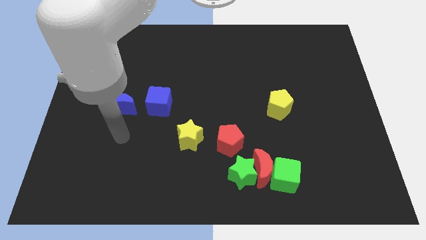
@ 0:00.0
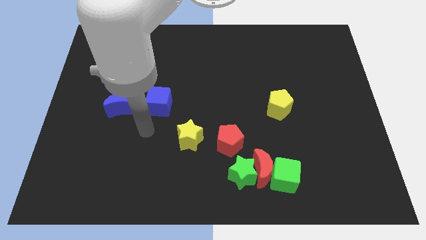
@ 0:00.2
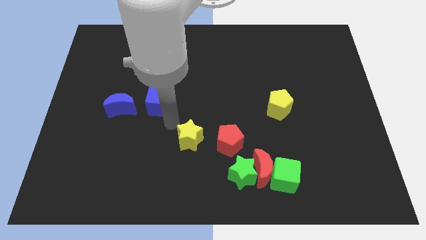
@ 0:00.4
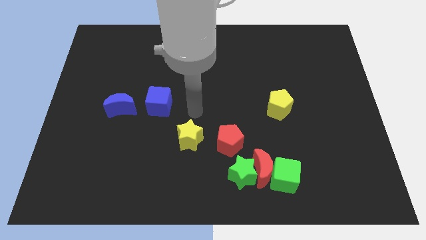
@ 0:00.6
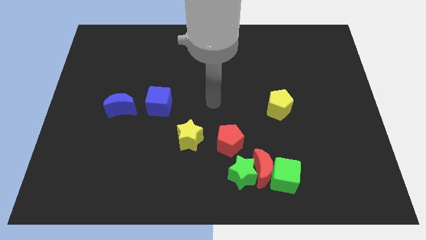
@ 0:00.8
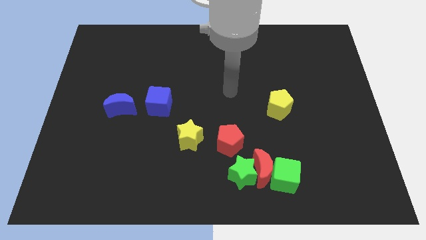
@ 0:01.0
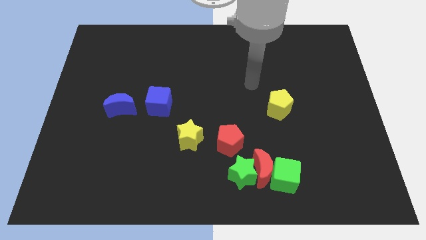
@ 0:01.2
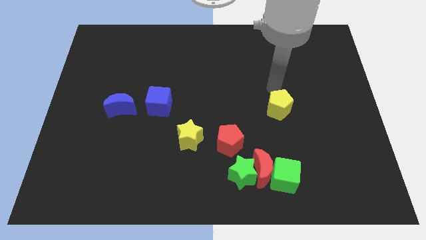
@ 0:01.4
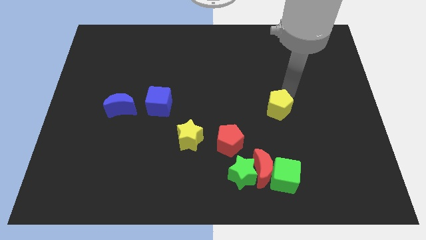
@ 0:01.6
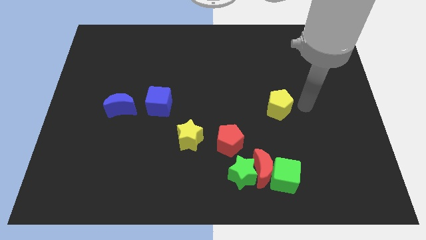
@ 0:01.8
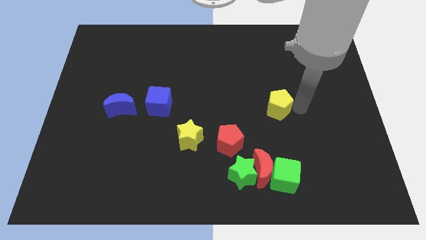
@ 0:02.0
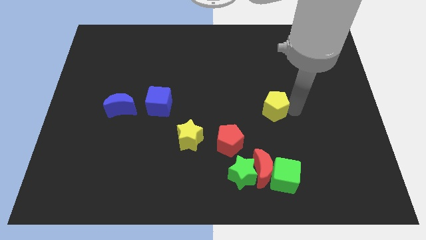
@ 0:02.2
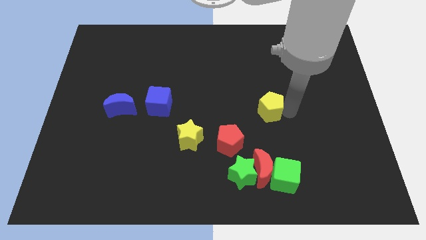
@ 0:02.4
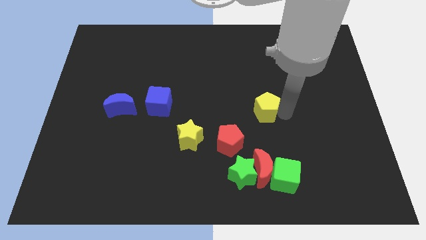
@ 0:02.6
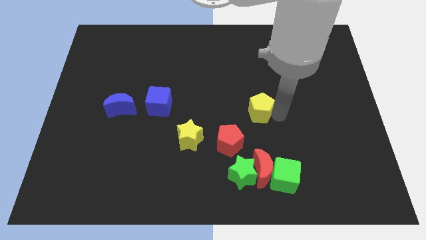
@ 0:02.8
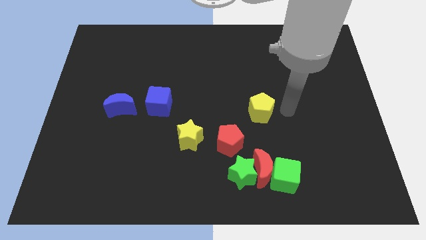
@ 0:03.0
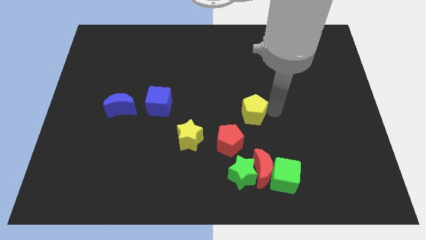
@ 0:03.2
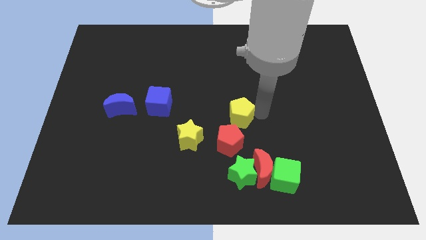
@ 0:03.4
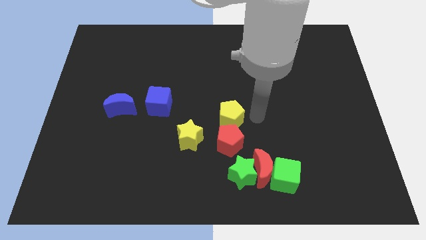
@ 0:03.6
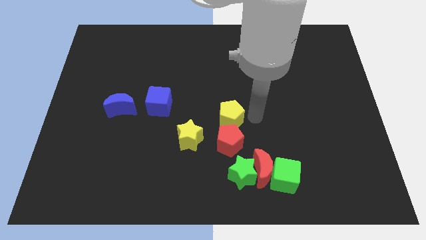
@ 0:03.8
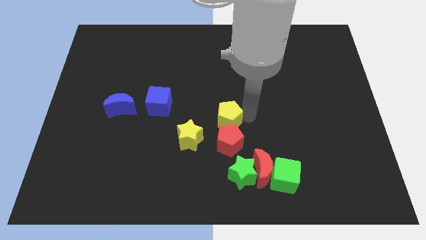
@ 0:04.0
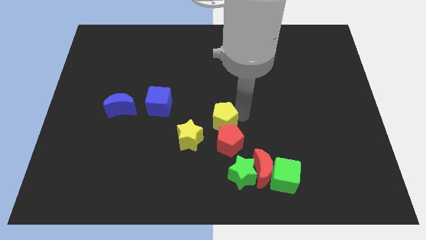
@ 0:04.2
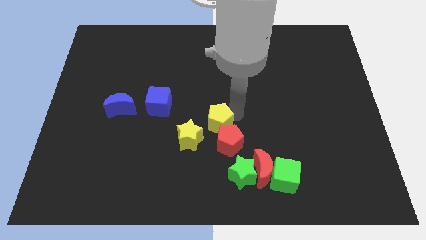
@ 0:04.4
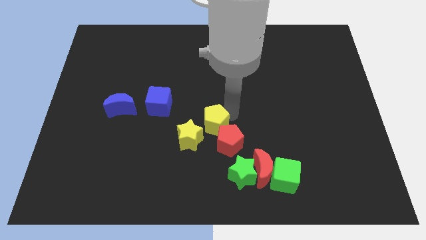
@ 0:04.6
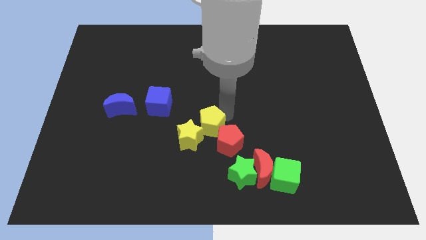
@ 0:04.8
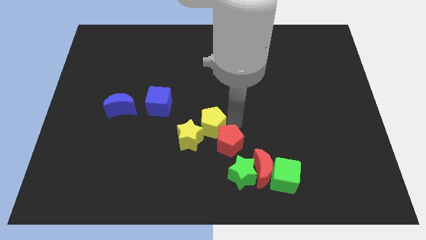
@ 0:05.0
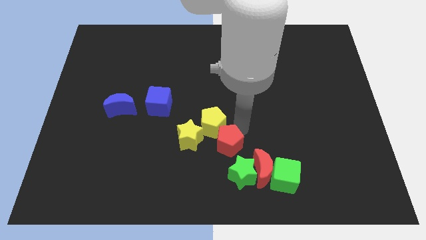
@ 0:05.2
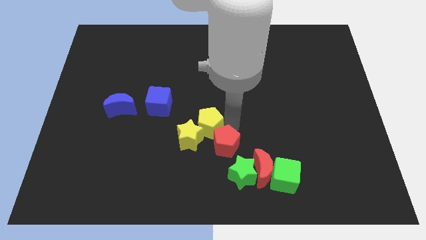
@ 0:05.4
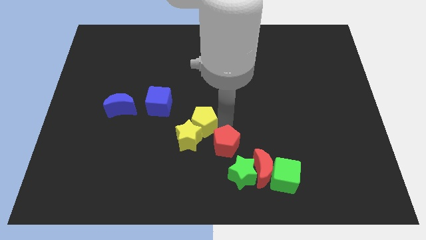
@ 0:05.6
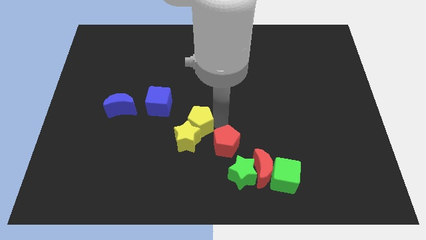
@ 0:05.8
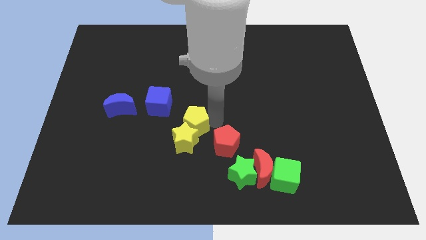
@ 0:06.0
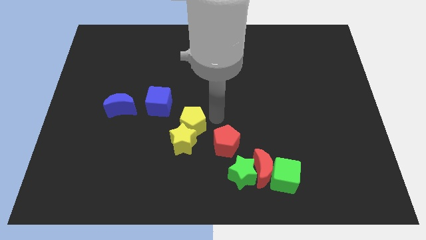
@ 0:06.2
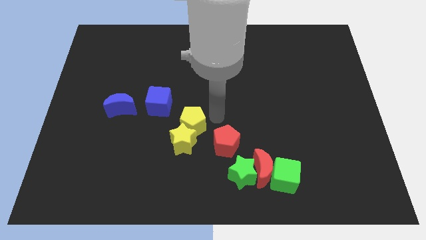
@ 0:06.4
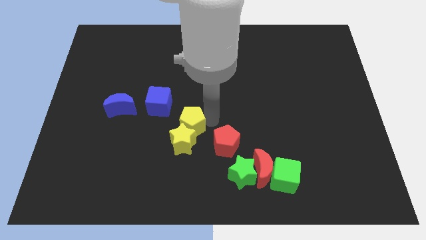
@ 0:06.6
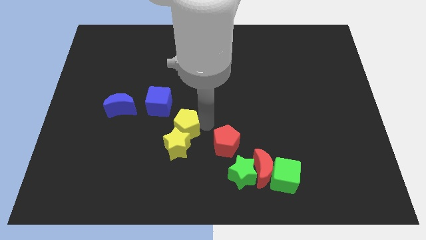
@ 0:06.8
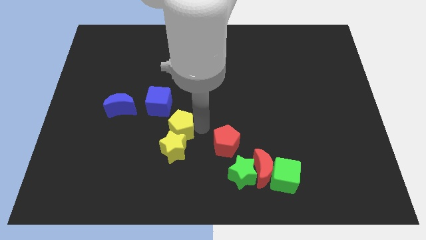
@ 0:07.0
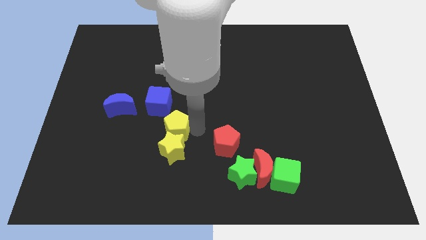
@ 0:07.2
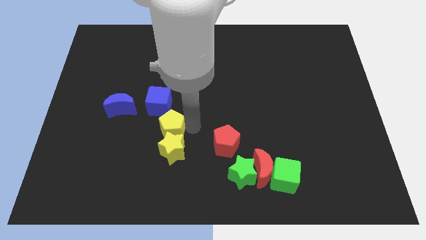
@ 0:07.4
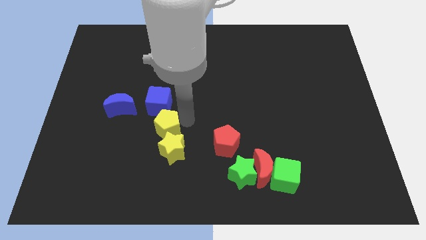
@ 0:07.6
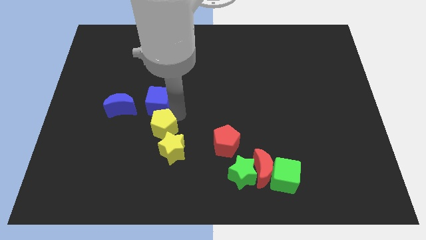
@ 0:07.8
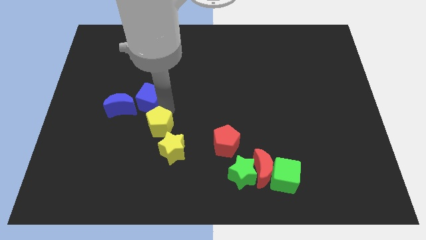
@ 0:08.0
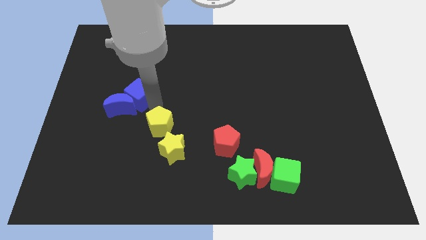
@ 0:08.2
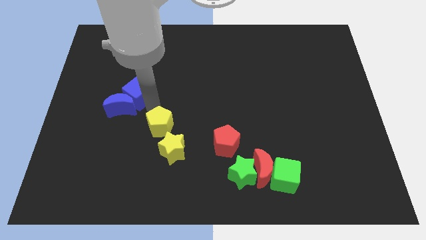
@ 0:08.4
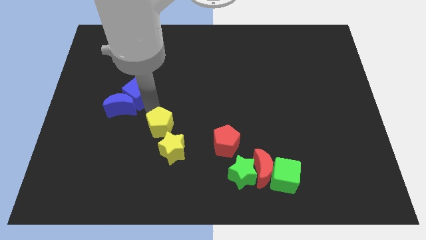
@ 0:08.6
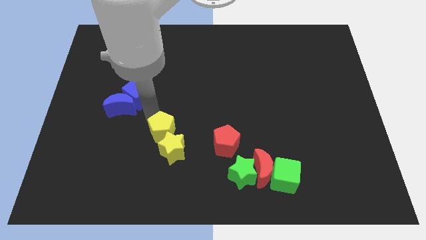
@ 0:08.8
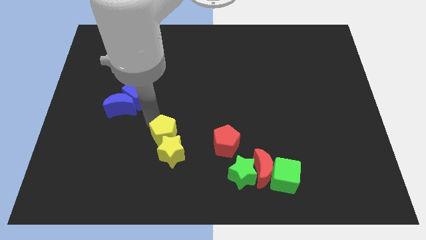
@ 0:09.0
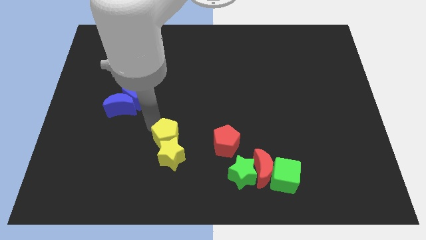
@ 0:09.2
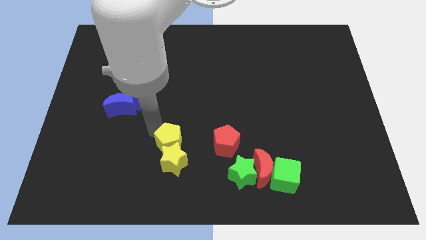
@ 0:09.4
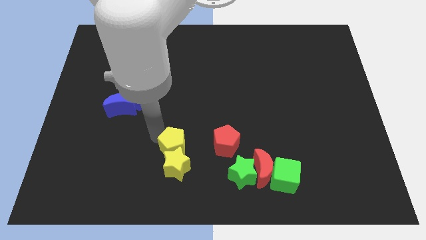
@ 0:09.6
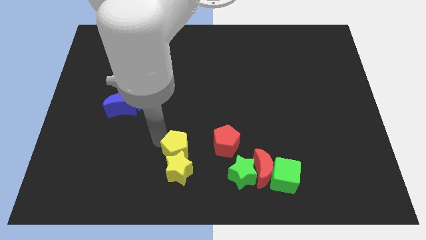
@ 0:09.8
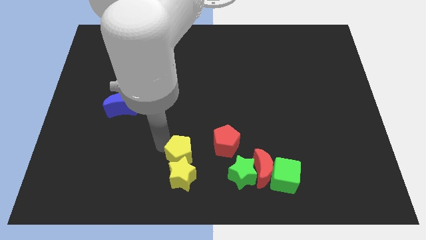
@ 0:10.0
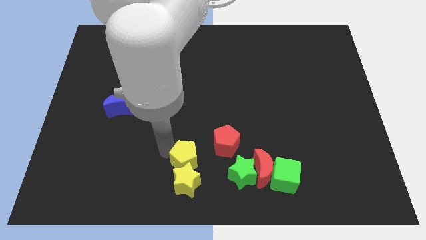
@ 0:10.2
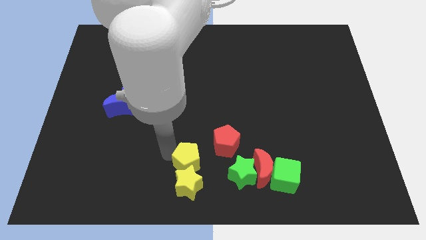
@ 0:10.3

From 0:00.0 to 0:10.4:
move the yellow pentagon left of the red moon

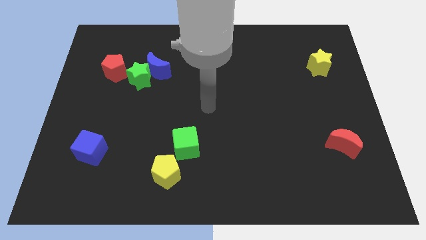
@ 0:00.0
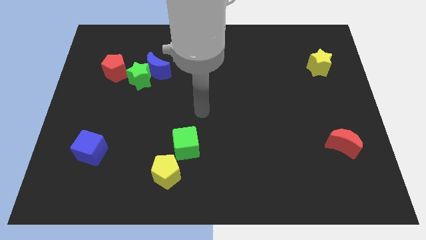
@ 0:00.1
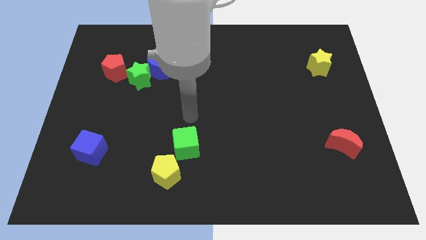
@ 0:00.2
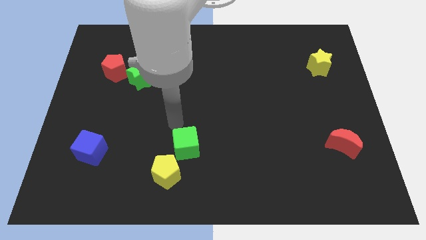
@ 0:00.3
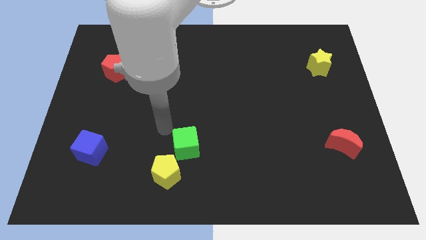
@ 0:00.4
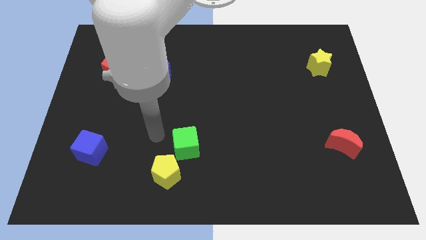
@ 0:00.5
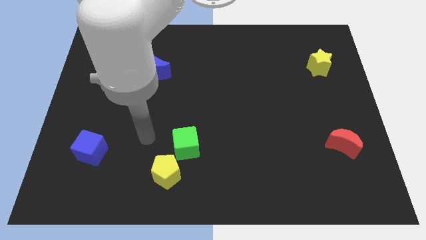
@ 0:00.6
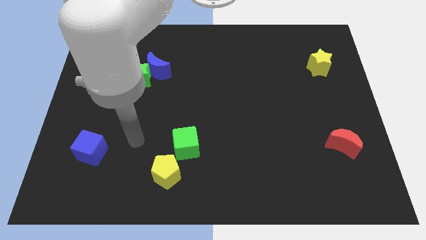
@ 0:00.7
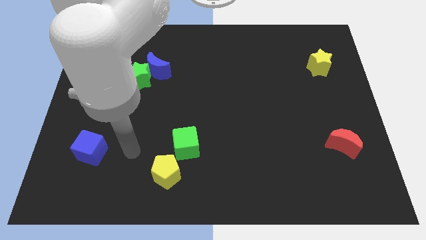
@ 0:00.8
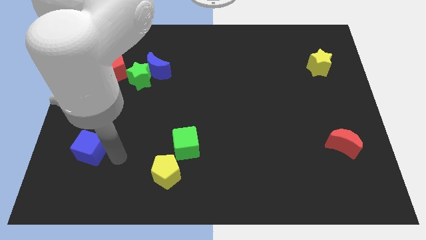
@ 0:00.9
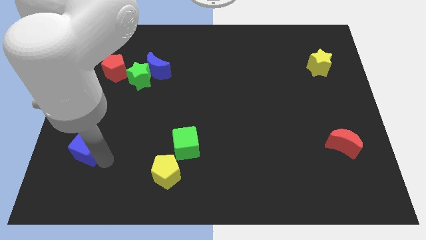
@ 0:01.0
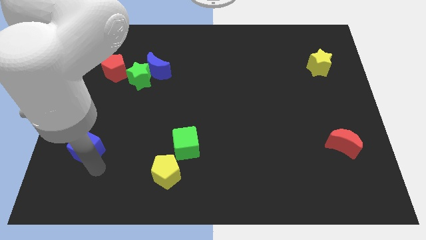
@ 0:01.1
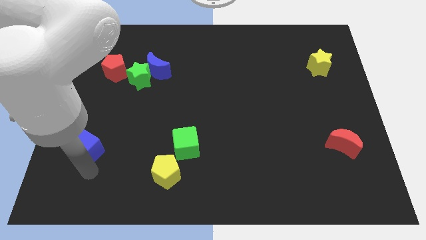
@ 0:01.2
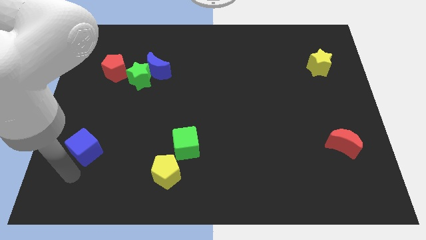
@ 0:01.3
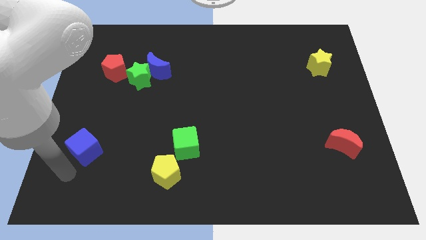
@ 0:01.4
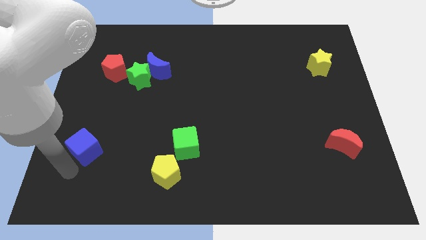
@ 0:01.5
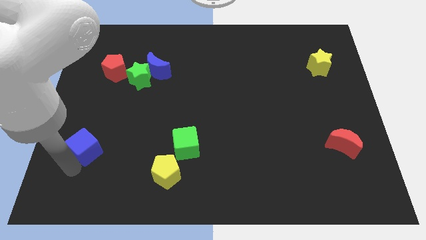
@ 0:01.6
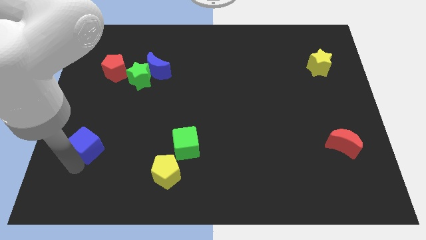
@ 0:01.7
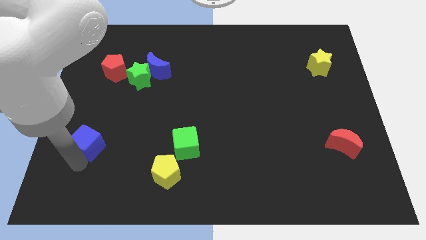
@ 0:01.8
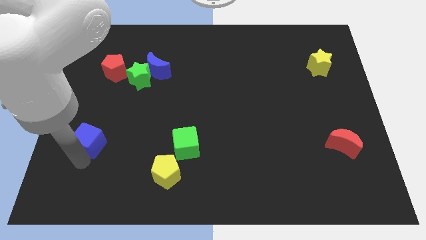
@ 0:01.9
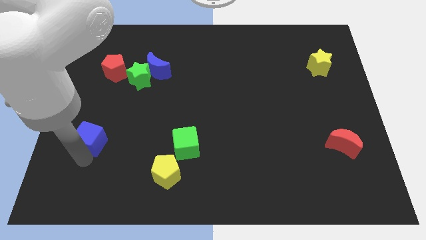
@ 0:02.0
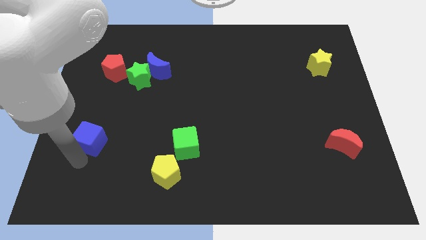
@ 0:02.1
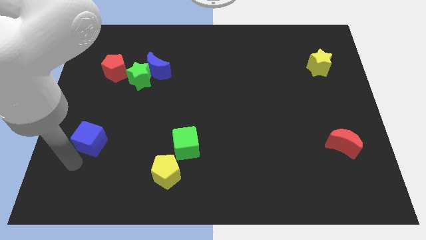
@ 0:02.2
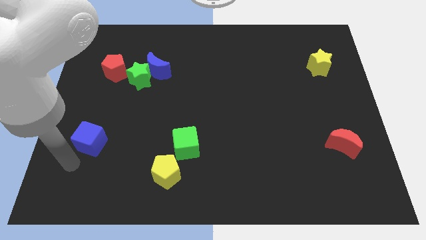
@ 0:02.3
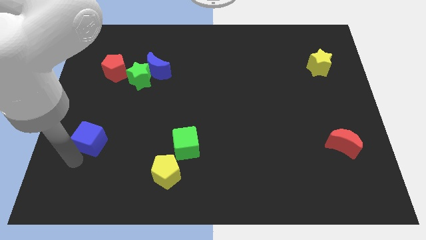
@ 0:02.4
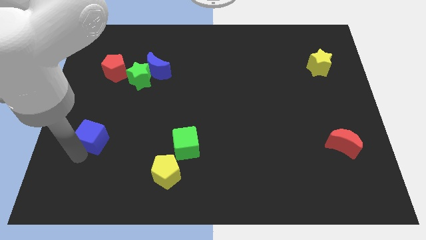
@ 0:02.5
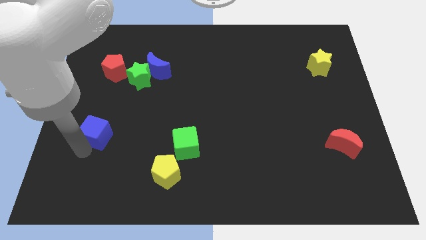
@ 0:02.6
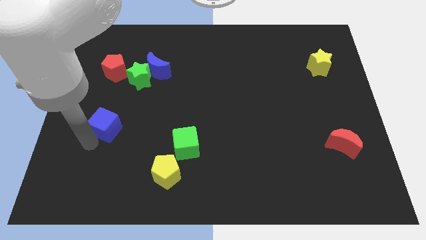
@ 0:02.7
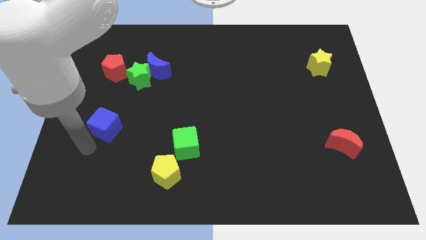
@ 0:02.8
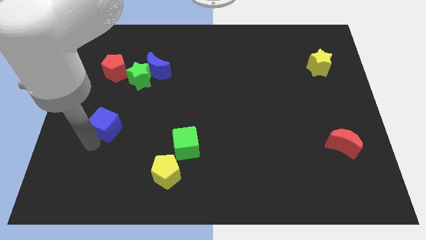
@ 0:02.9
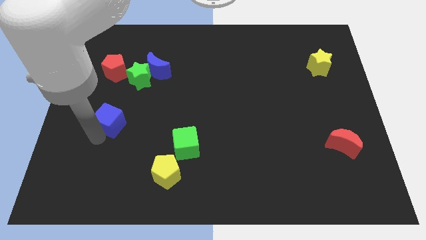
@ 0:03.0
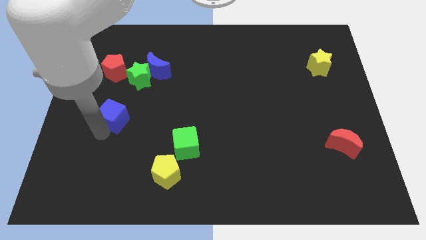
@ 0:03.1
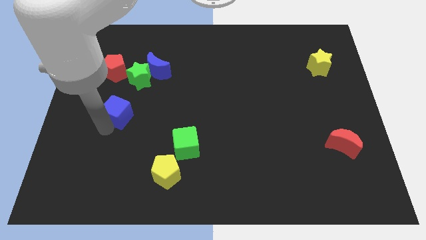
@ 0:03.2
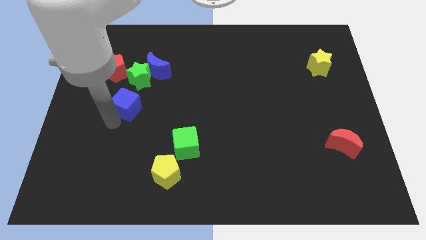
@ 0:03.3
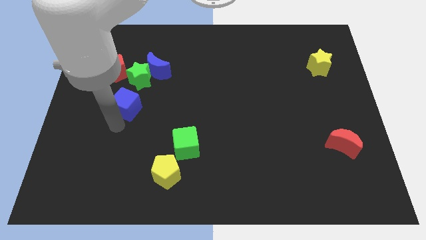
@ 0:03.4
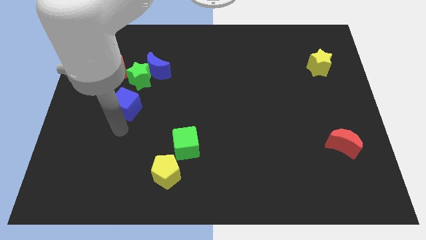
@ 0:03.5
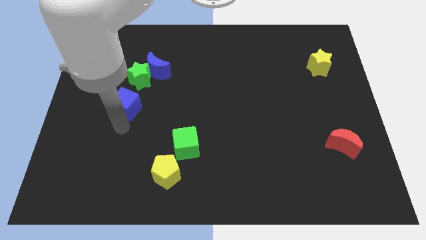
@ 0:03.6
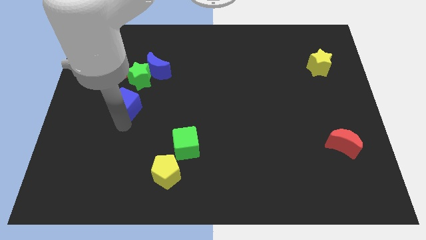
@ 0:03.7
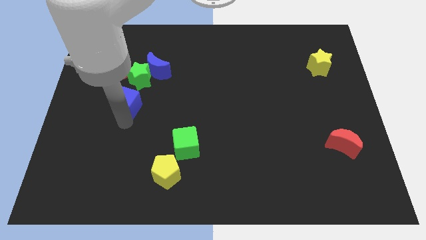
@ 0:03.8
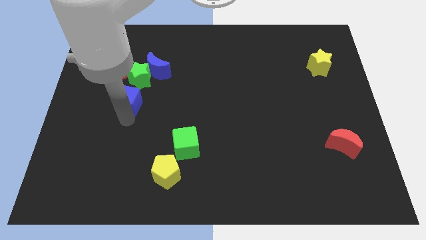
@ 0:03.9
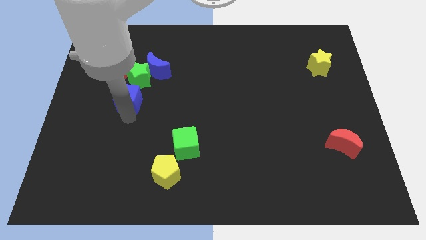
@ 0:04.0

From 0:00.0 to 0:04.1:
slide the blue cube to the bottom right side of the red pentagon
